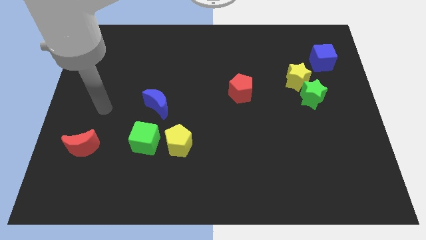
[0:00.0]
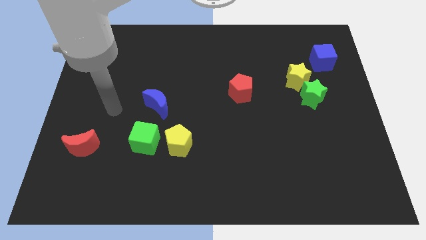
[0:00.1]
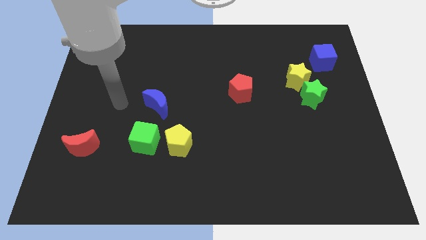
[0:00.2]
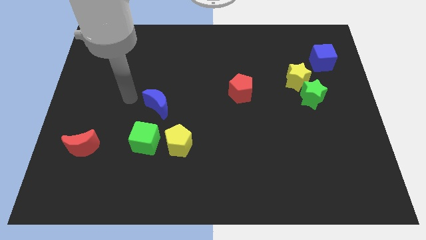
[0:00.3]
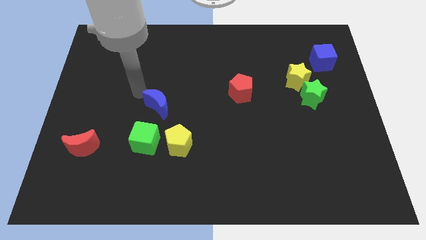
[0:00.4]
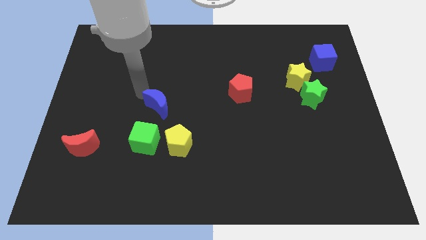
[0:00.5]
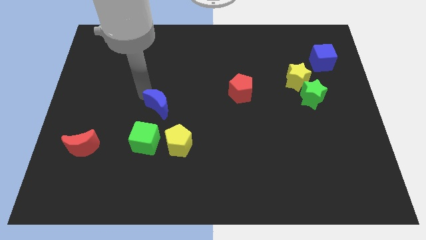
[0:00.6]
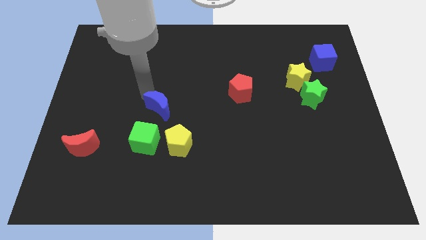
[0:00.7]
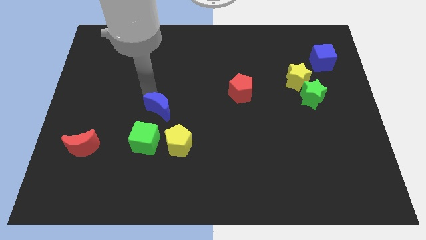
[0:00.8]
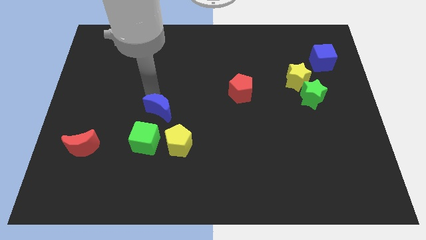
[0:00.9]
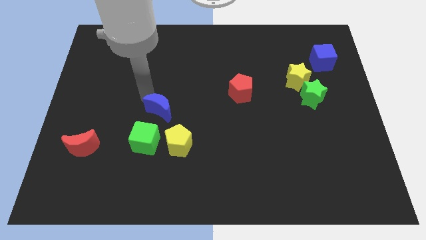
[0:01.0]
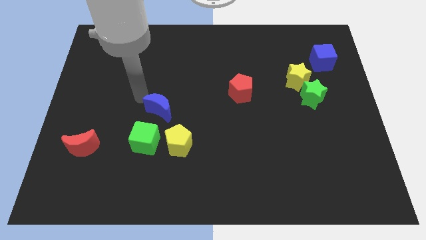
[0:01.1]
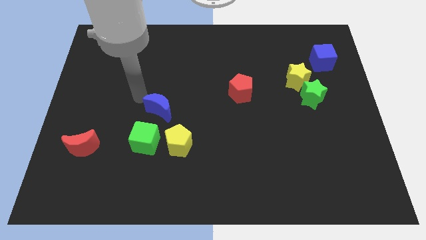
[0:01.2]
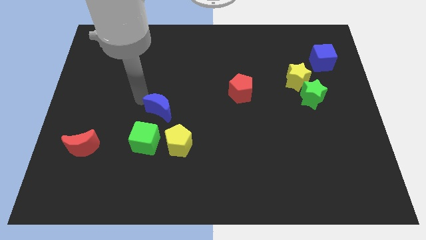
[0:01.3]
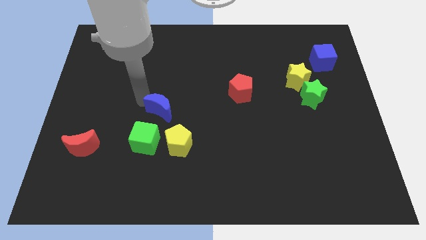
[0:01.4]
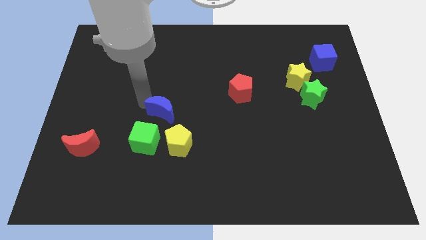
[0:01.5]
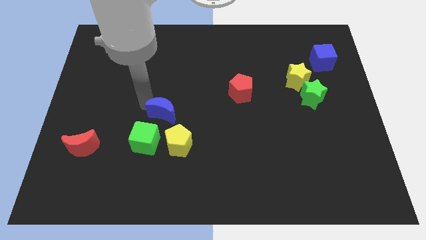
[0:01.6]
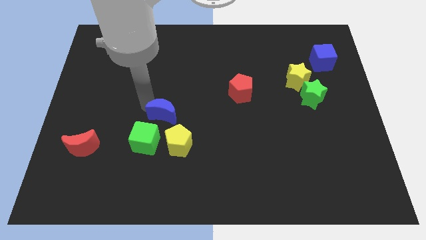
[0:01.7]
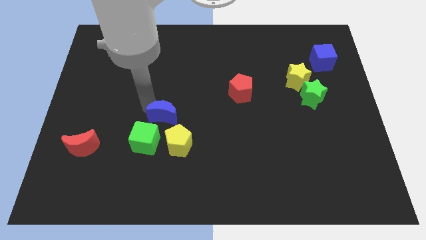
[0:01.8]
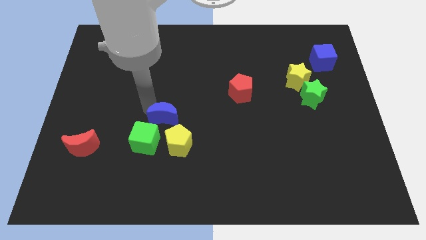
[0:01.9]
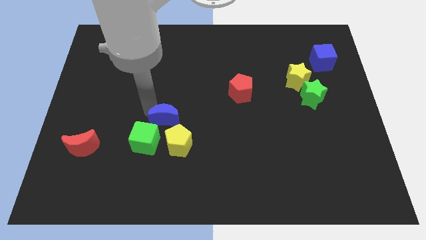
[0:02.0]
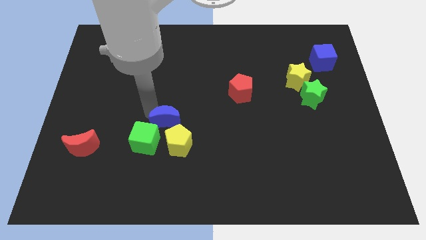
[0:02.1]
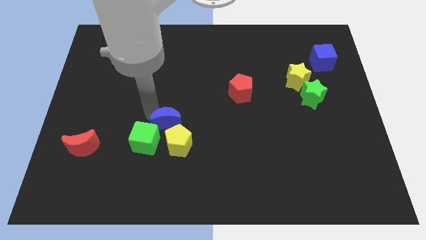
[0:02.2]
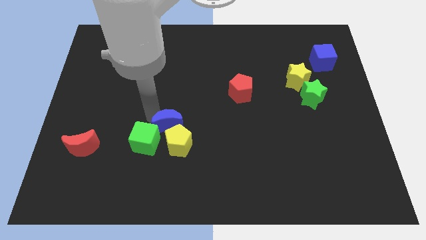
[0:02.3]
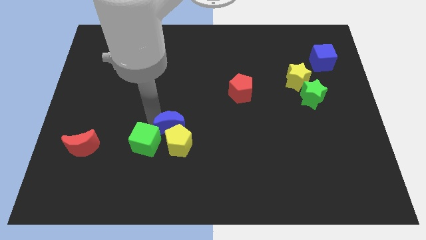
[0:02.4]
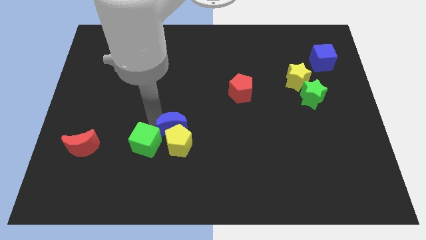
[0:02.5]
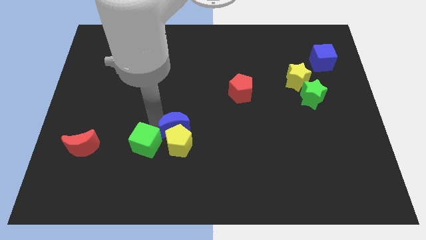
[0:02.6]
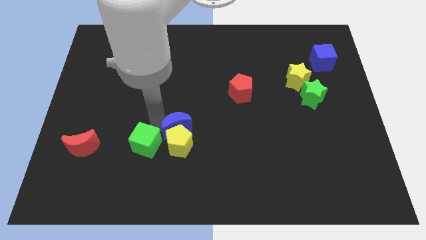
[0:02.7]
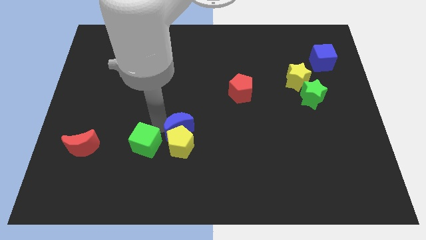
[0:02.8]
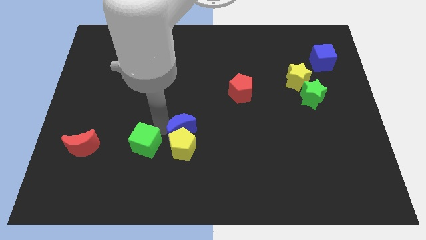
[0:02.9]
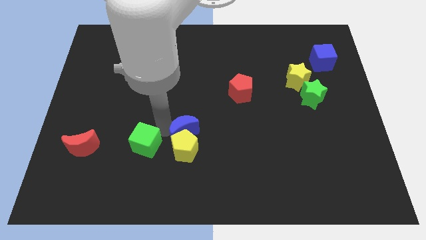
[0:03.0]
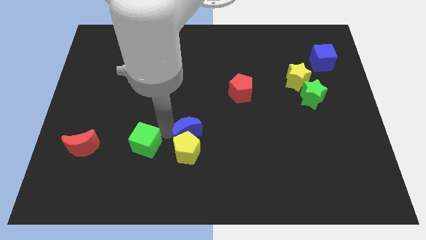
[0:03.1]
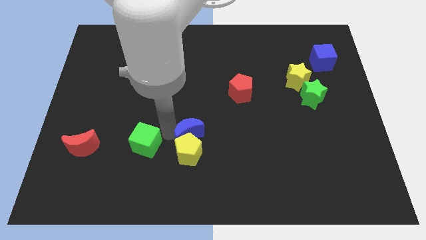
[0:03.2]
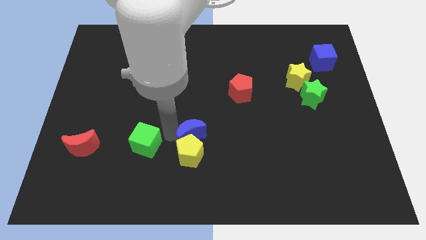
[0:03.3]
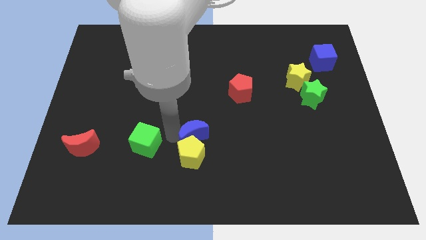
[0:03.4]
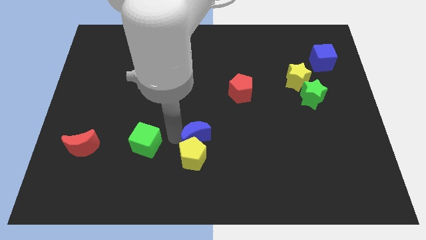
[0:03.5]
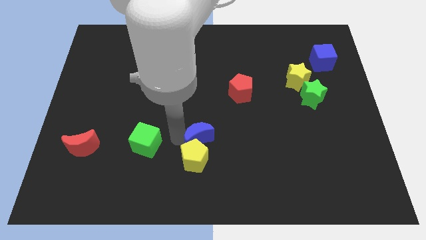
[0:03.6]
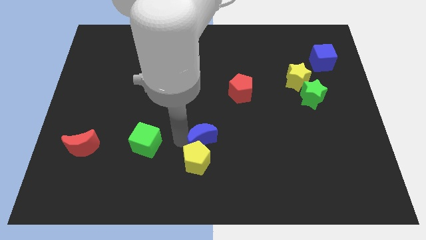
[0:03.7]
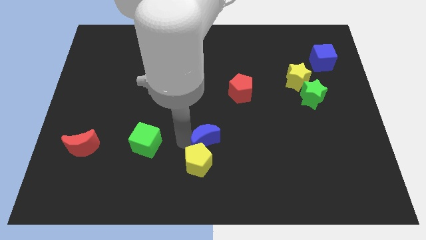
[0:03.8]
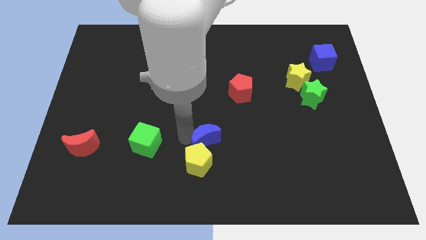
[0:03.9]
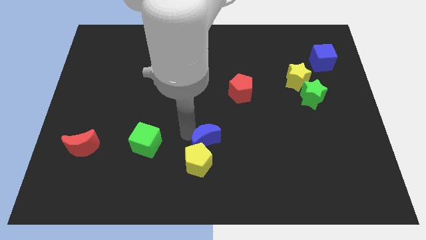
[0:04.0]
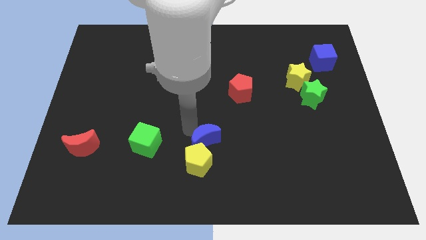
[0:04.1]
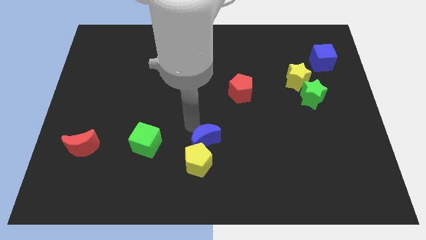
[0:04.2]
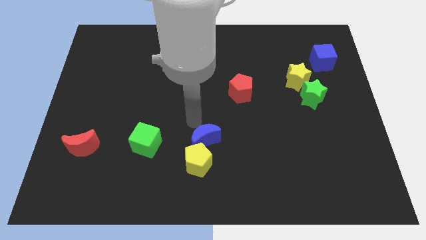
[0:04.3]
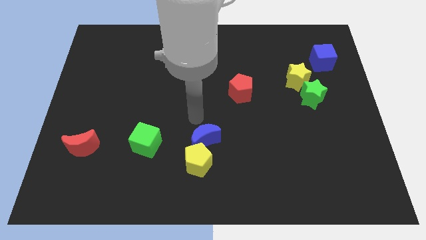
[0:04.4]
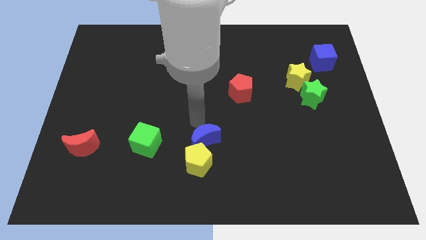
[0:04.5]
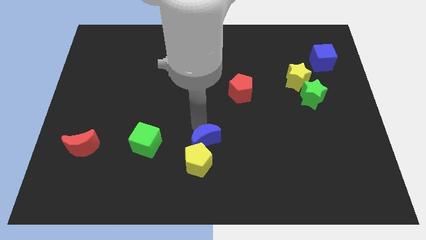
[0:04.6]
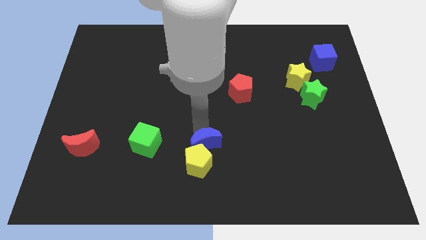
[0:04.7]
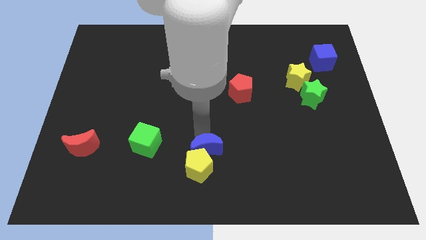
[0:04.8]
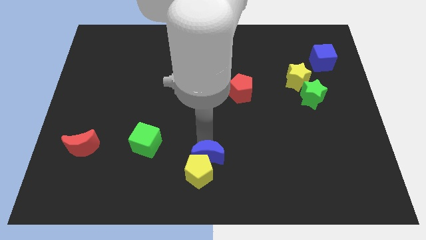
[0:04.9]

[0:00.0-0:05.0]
put the blue moon to the bottom

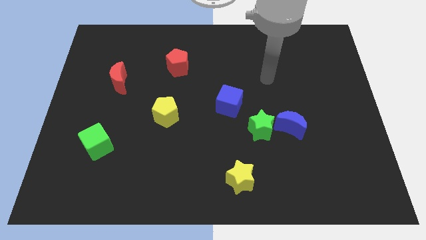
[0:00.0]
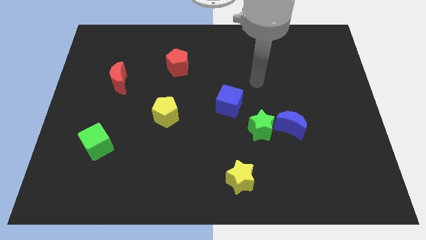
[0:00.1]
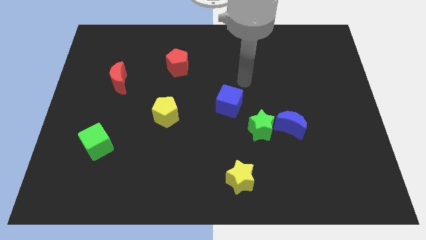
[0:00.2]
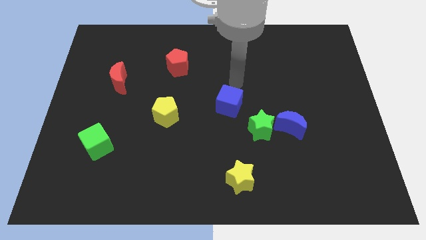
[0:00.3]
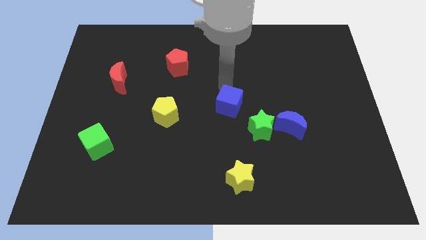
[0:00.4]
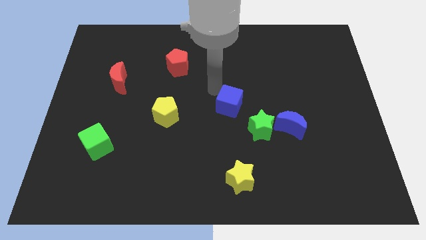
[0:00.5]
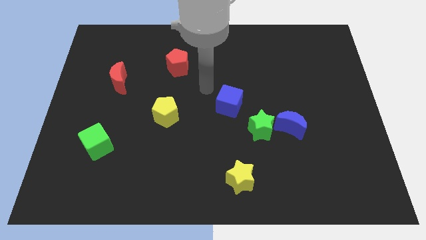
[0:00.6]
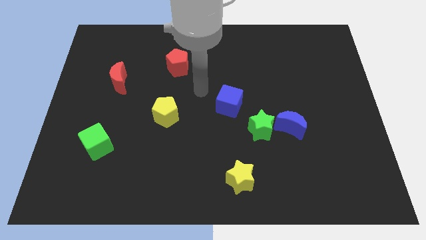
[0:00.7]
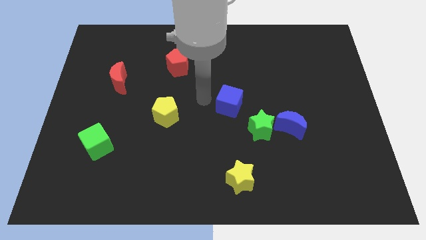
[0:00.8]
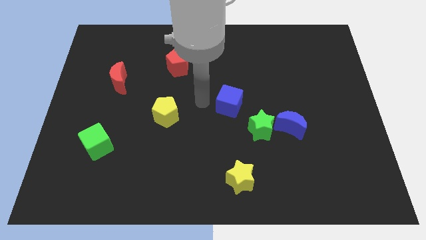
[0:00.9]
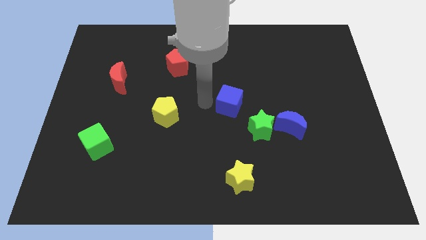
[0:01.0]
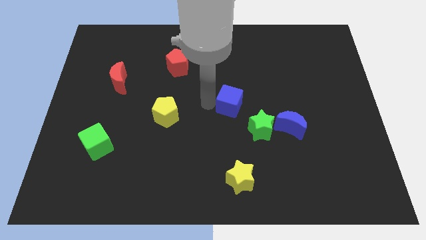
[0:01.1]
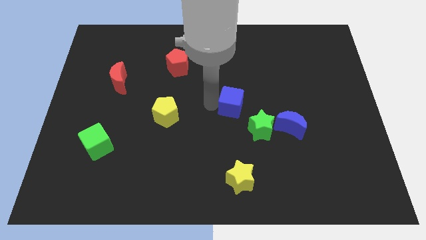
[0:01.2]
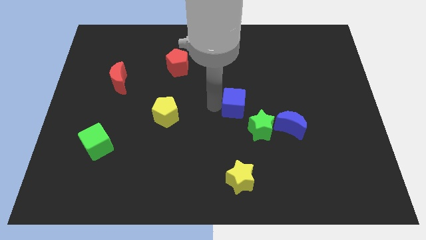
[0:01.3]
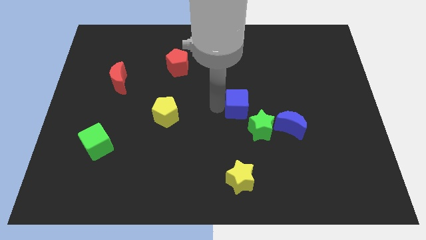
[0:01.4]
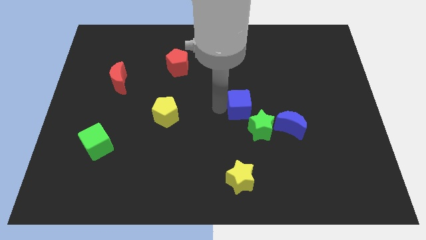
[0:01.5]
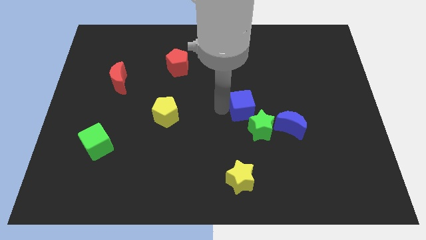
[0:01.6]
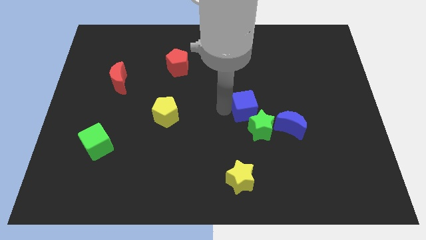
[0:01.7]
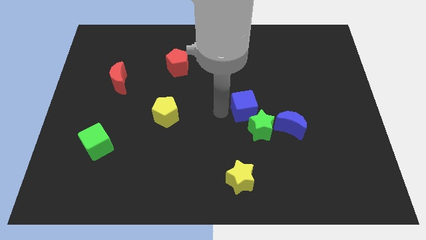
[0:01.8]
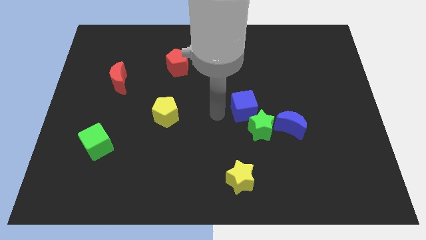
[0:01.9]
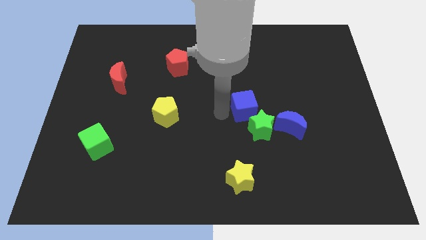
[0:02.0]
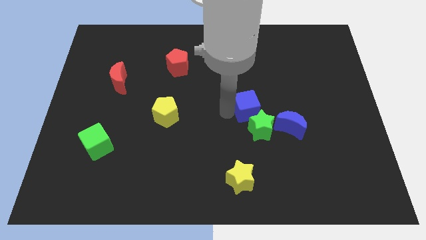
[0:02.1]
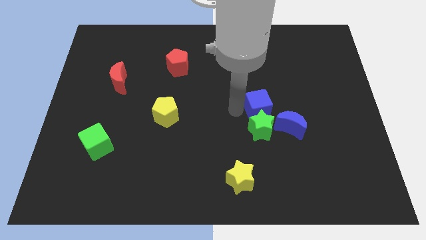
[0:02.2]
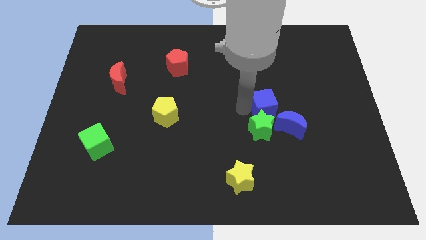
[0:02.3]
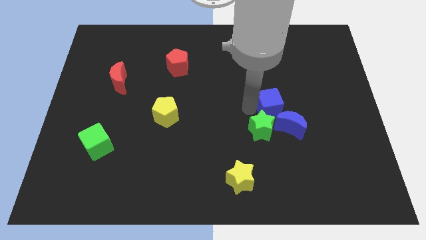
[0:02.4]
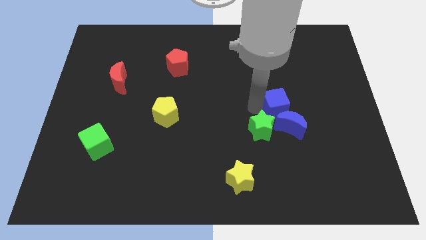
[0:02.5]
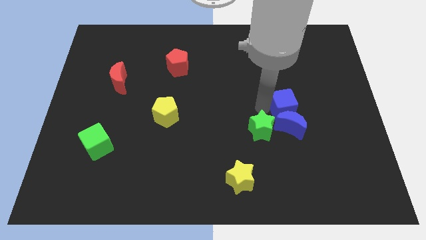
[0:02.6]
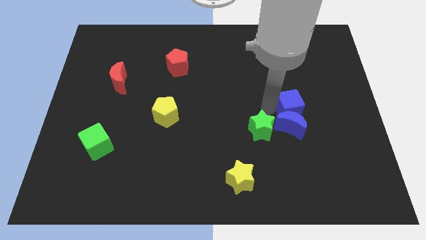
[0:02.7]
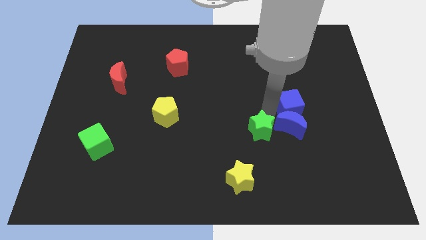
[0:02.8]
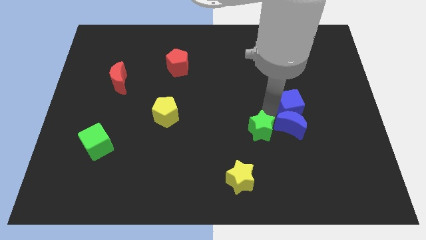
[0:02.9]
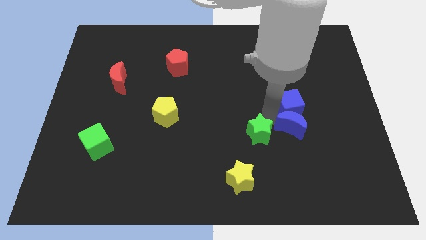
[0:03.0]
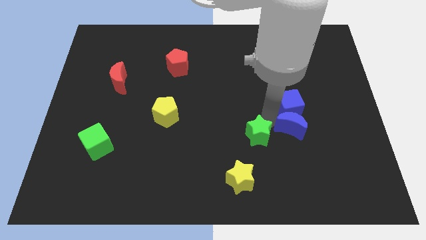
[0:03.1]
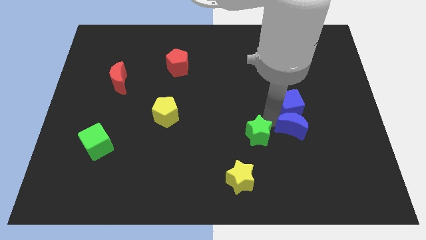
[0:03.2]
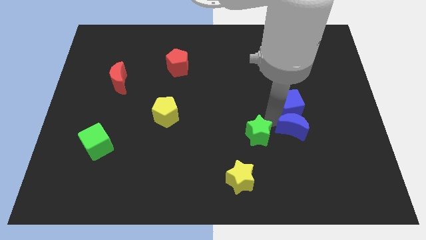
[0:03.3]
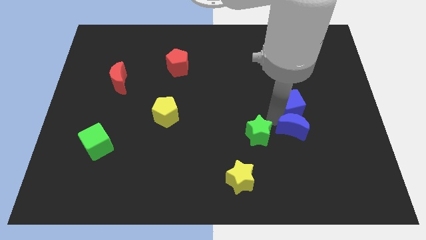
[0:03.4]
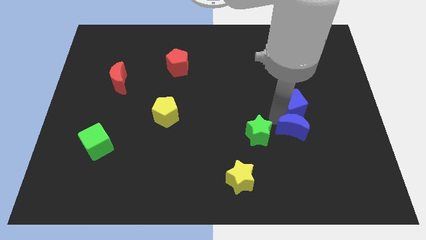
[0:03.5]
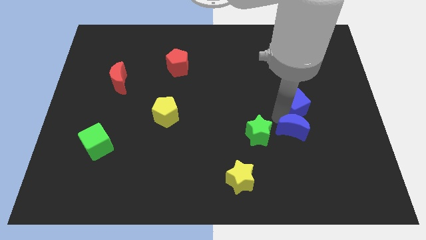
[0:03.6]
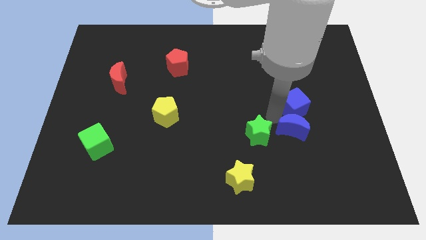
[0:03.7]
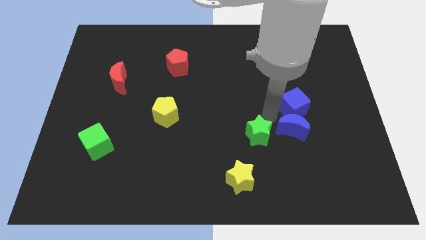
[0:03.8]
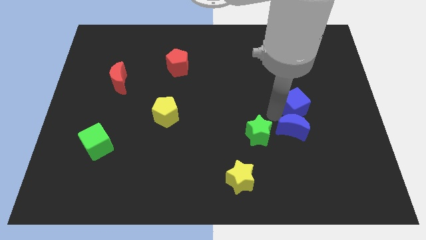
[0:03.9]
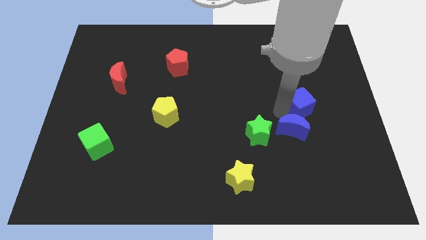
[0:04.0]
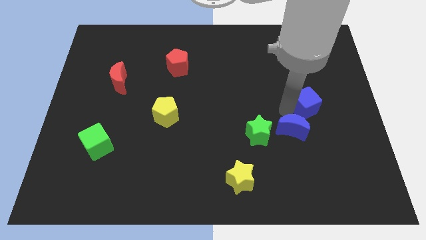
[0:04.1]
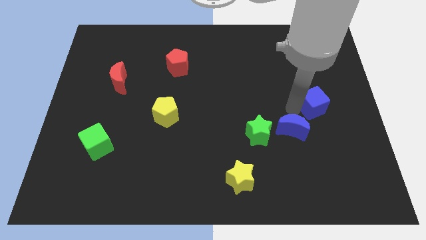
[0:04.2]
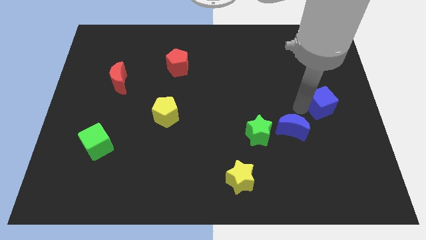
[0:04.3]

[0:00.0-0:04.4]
put the blue cube to the right side of the board
